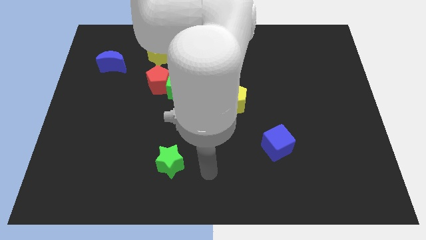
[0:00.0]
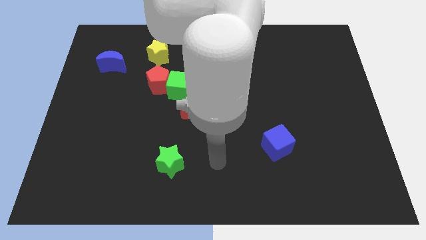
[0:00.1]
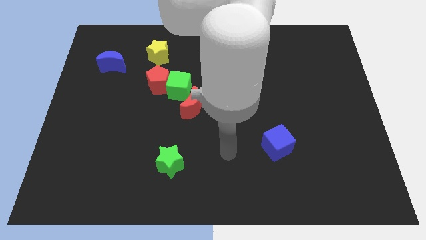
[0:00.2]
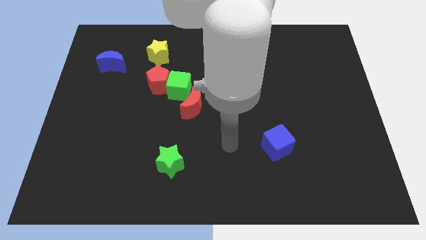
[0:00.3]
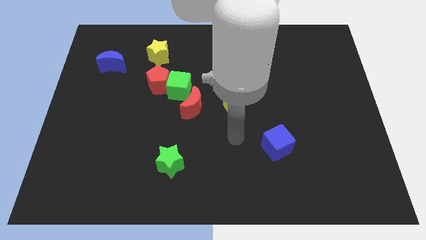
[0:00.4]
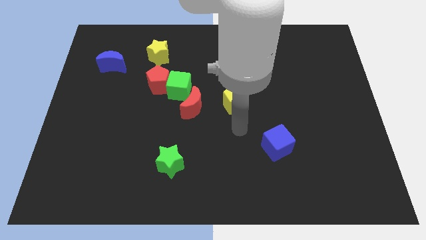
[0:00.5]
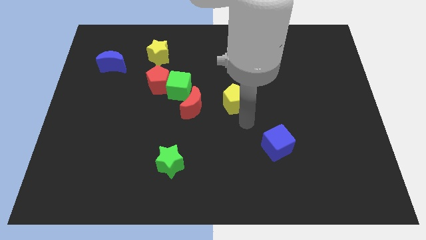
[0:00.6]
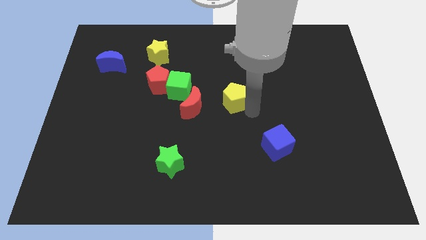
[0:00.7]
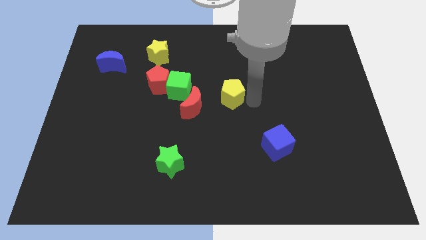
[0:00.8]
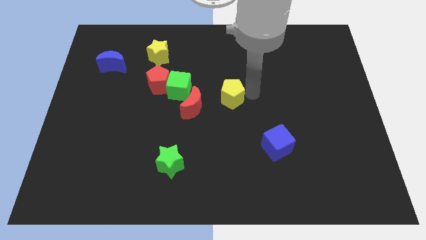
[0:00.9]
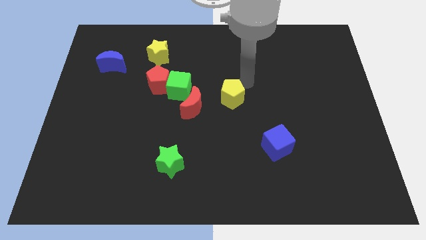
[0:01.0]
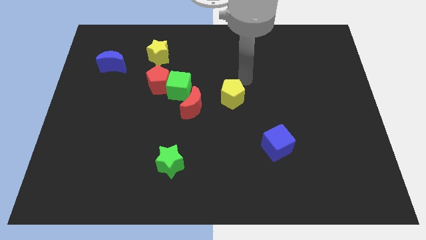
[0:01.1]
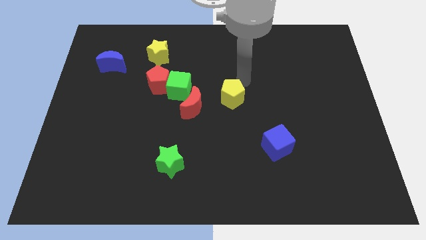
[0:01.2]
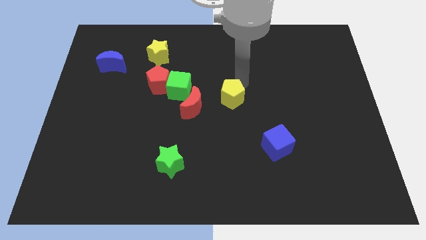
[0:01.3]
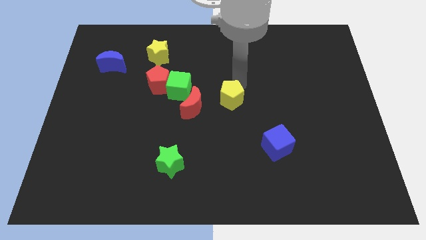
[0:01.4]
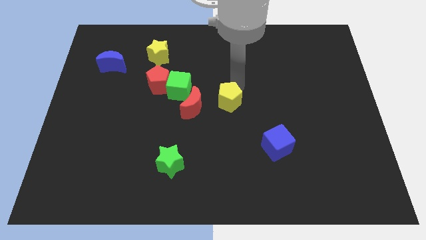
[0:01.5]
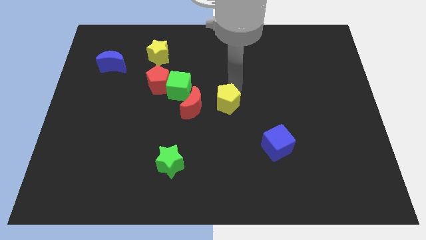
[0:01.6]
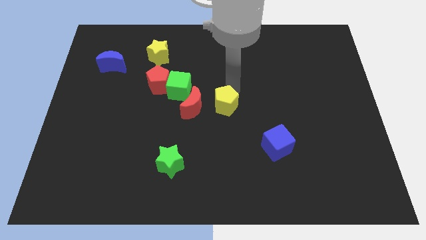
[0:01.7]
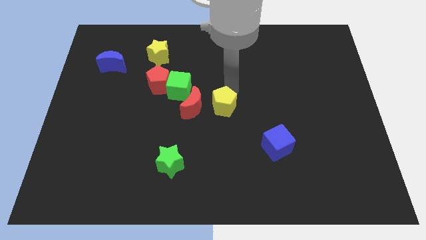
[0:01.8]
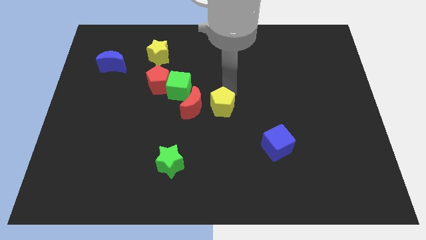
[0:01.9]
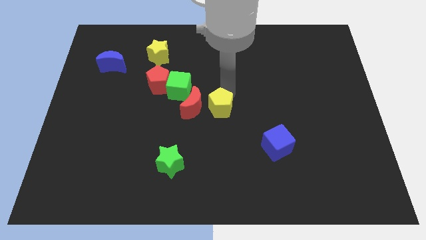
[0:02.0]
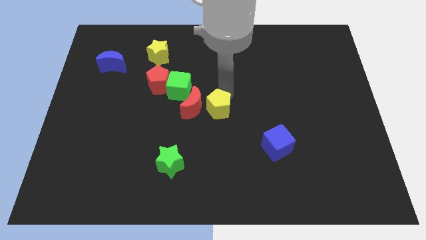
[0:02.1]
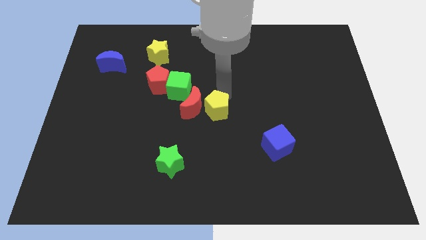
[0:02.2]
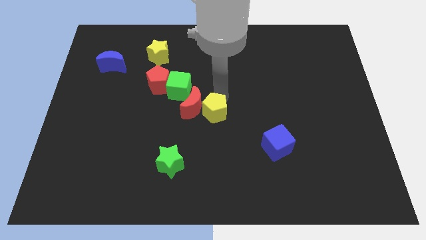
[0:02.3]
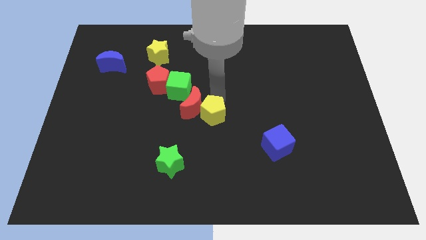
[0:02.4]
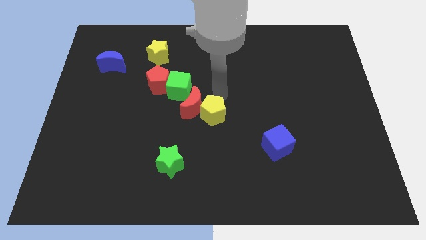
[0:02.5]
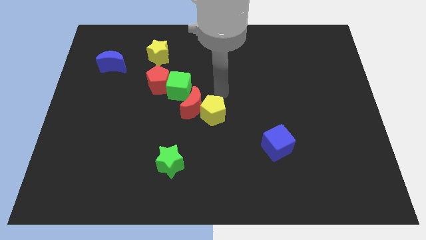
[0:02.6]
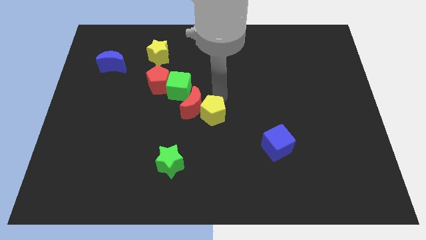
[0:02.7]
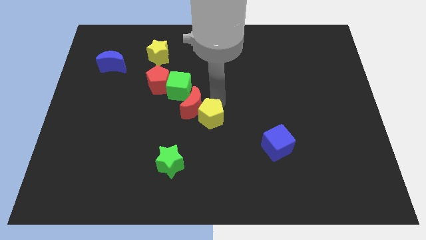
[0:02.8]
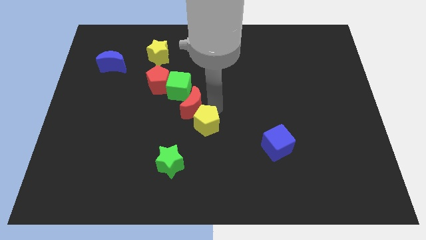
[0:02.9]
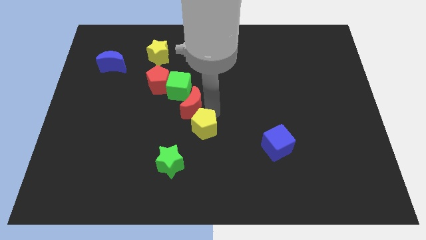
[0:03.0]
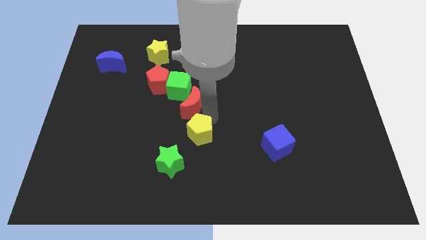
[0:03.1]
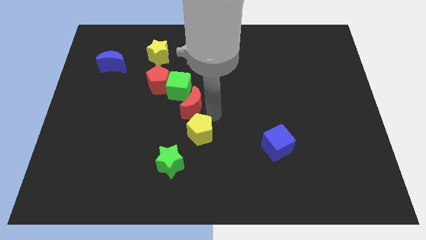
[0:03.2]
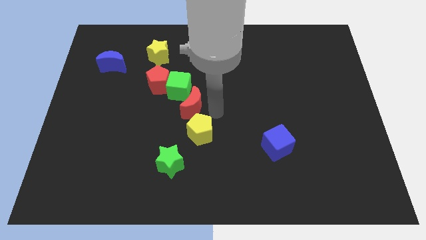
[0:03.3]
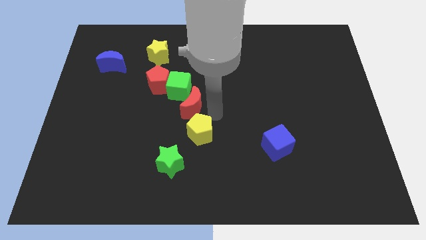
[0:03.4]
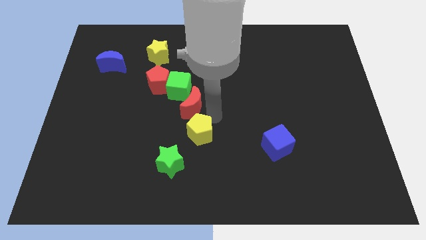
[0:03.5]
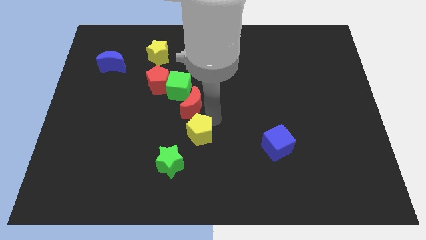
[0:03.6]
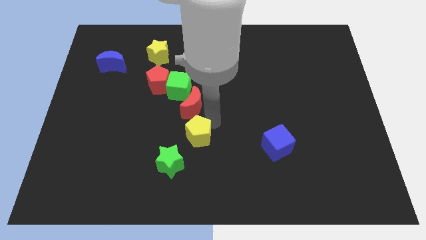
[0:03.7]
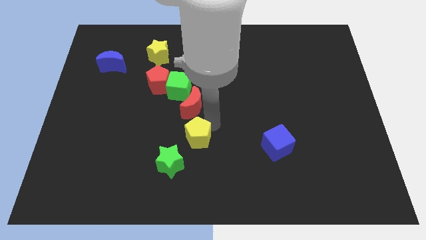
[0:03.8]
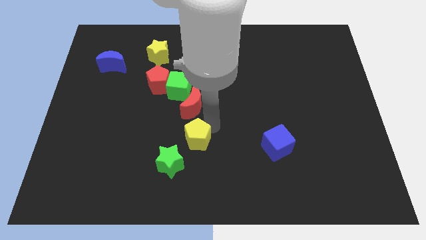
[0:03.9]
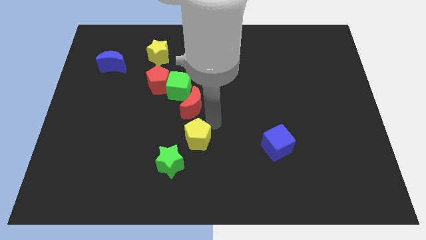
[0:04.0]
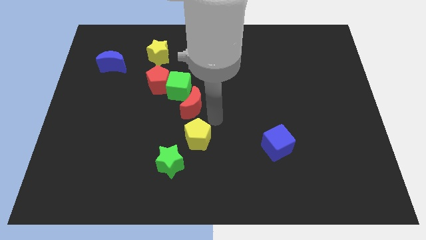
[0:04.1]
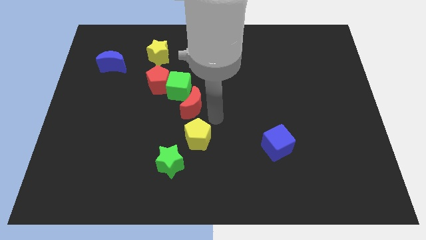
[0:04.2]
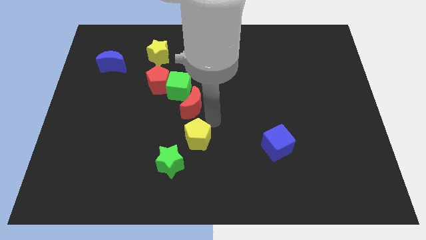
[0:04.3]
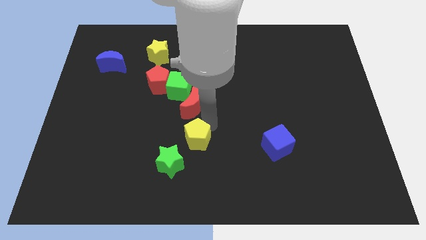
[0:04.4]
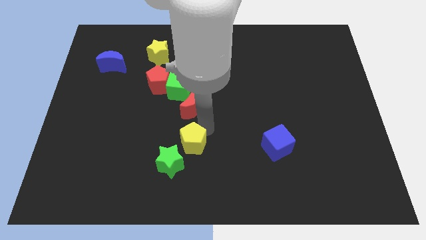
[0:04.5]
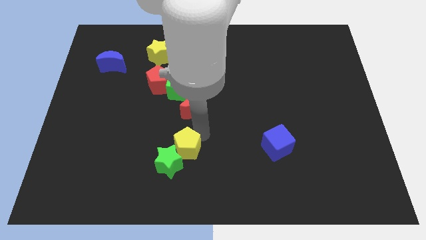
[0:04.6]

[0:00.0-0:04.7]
put the yellow pentagon close to the green star

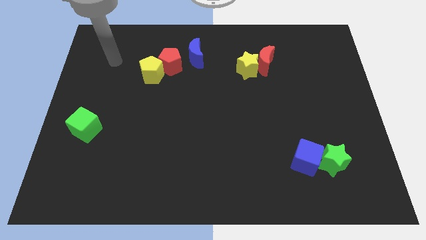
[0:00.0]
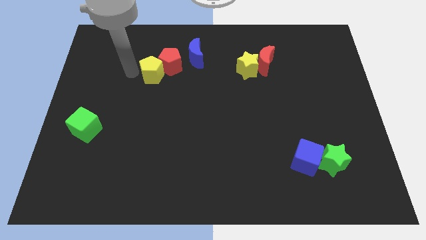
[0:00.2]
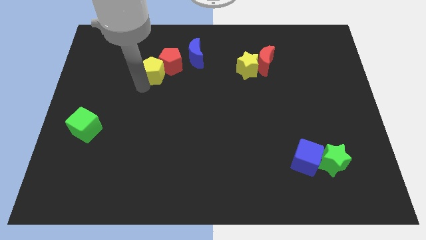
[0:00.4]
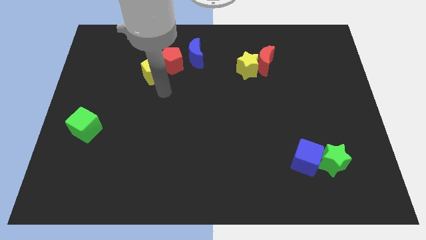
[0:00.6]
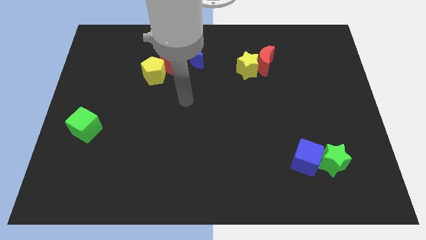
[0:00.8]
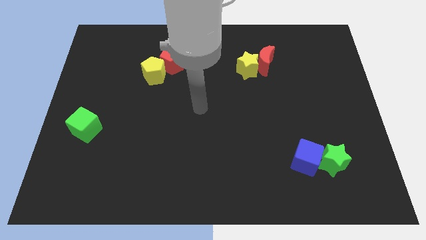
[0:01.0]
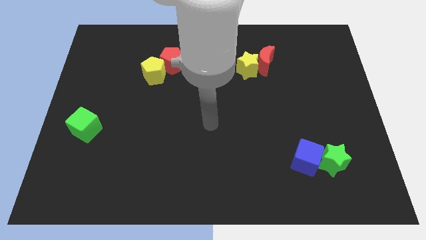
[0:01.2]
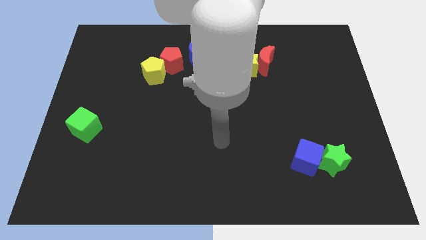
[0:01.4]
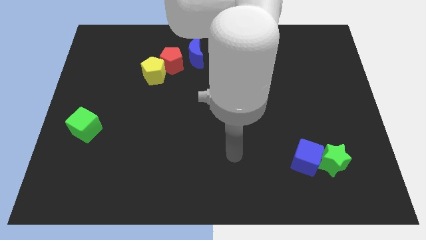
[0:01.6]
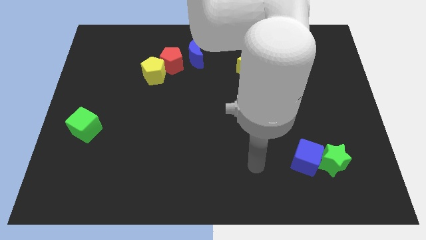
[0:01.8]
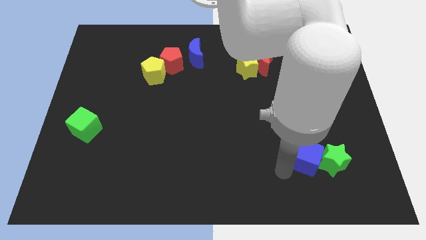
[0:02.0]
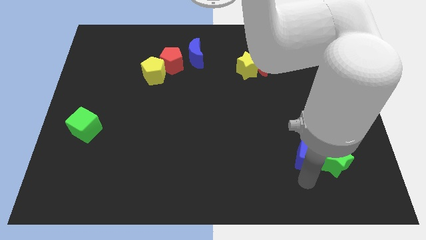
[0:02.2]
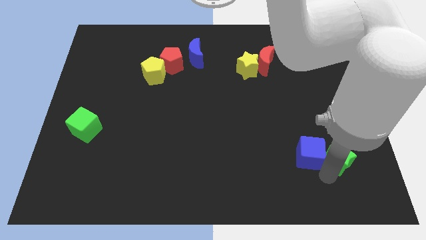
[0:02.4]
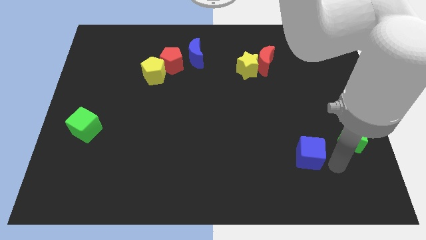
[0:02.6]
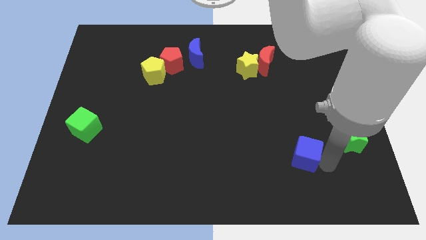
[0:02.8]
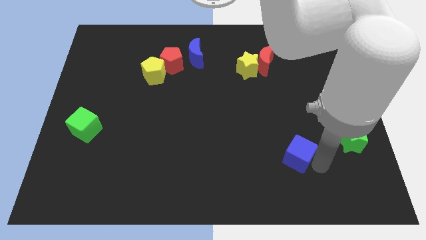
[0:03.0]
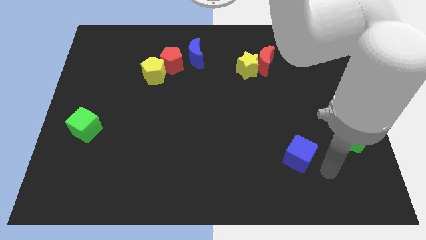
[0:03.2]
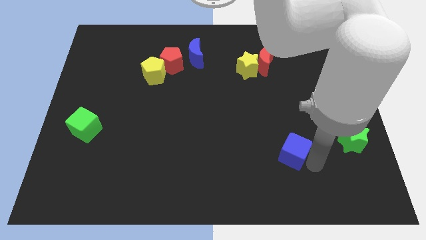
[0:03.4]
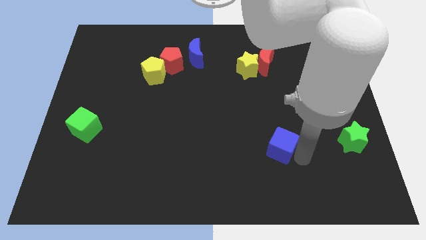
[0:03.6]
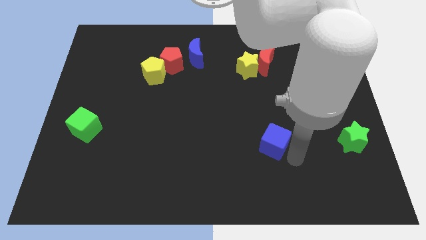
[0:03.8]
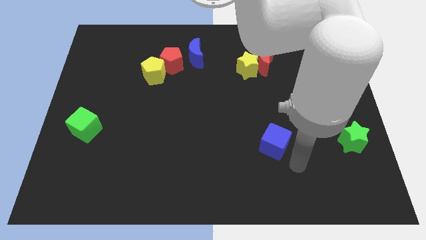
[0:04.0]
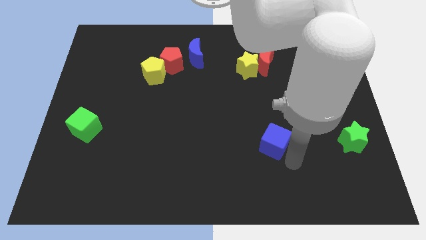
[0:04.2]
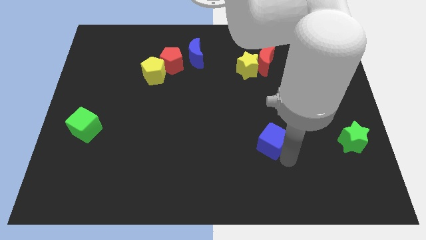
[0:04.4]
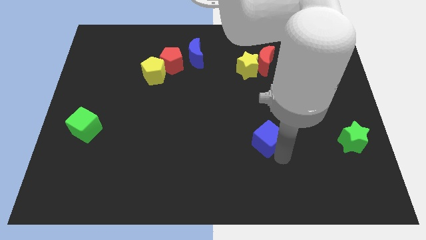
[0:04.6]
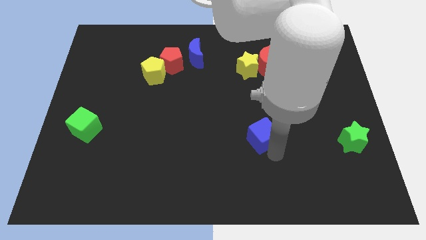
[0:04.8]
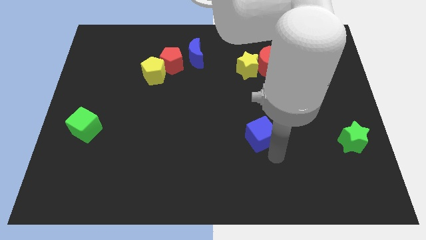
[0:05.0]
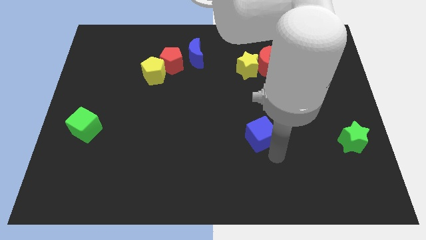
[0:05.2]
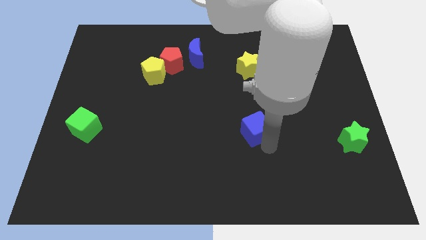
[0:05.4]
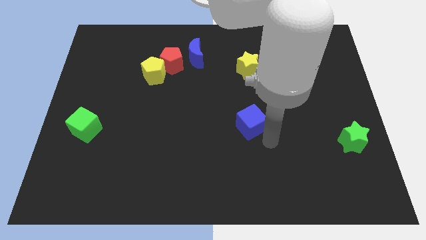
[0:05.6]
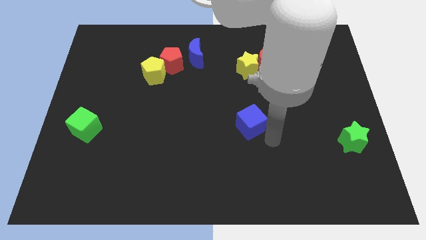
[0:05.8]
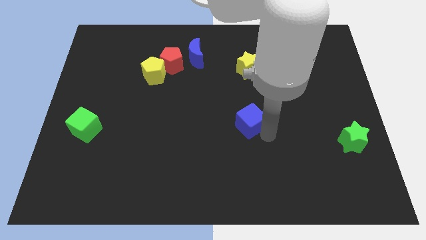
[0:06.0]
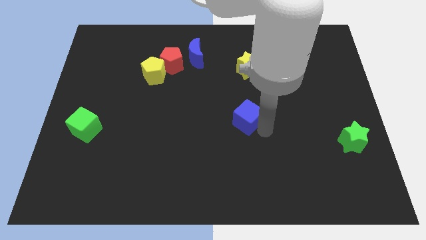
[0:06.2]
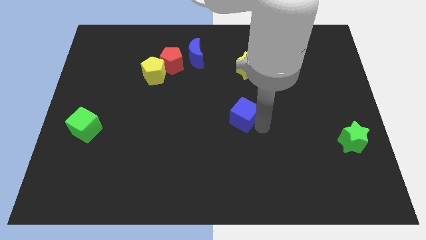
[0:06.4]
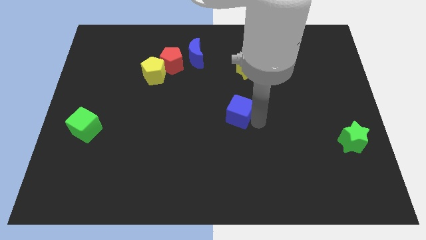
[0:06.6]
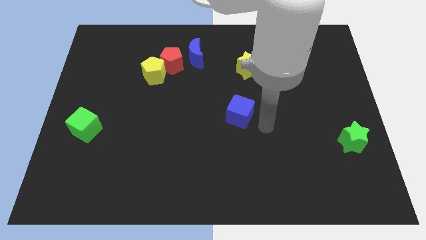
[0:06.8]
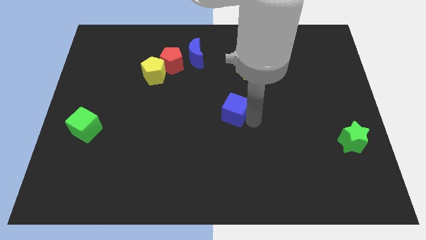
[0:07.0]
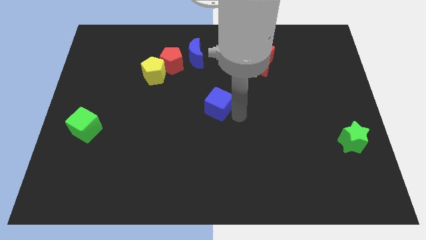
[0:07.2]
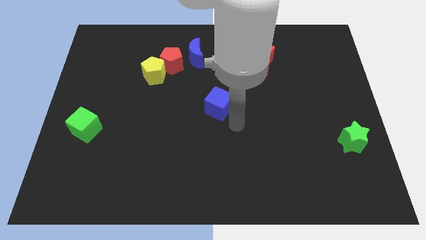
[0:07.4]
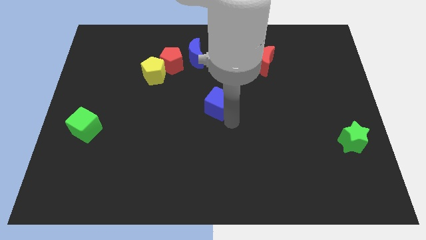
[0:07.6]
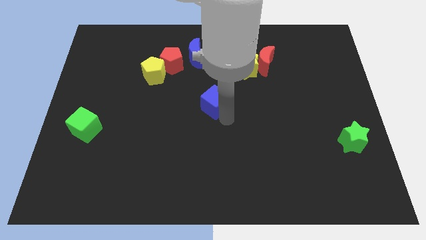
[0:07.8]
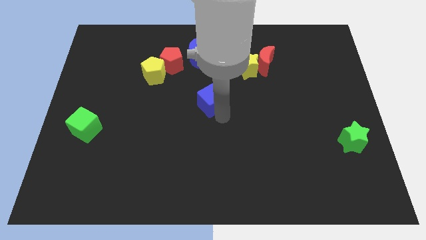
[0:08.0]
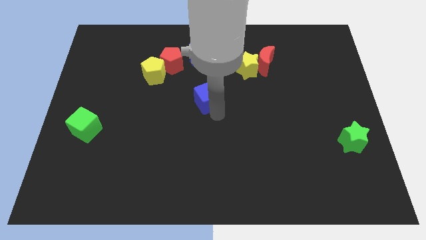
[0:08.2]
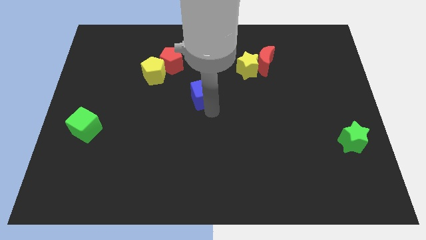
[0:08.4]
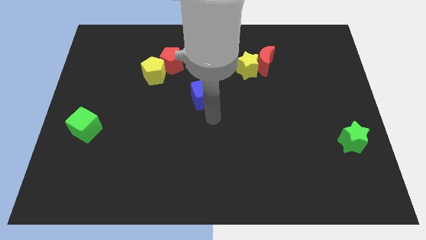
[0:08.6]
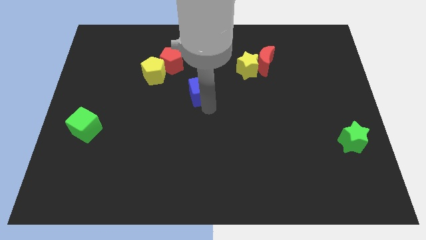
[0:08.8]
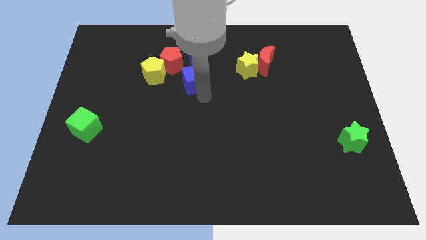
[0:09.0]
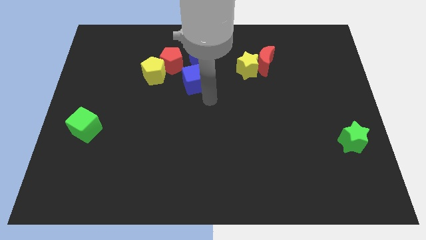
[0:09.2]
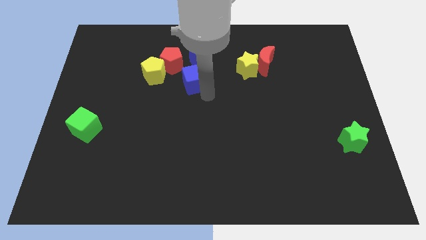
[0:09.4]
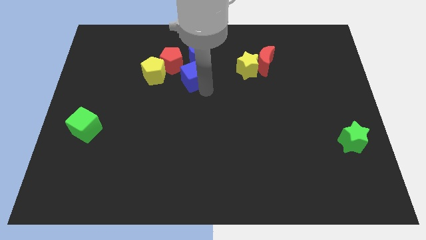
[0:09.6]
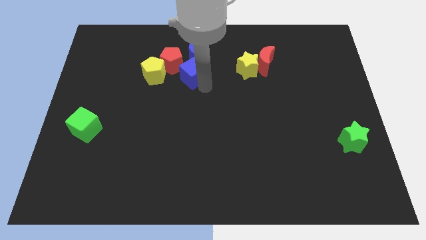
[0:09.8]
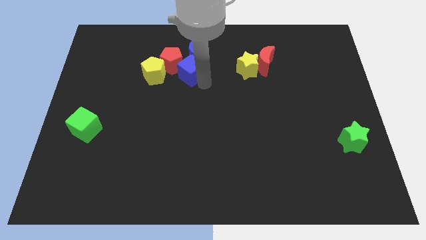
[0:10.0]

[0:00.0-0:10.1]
put the blue cube next to the red pentagon
